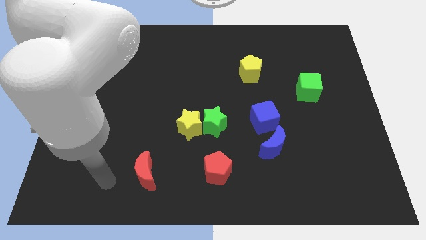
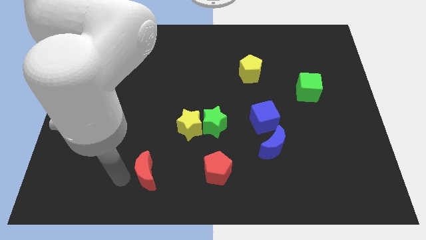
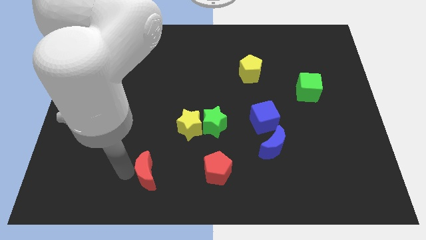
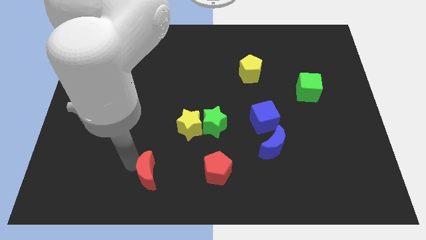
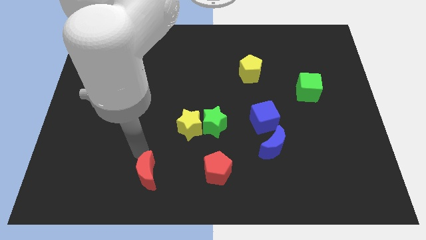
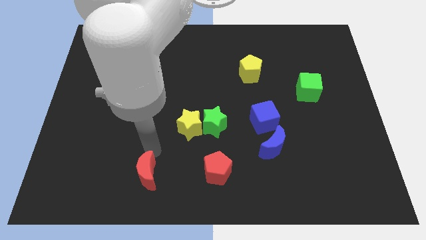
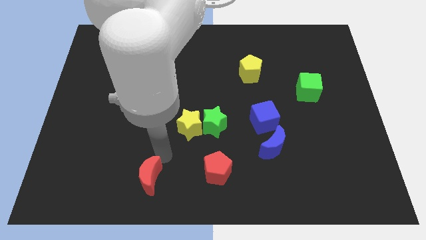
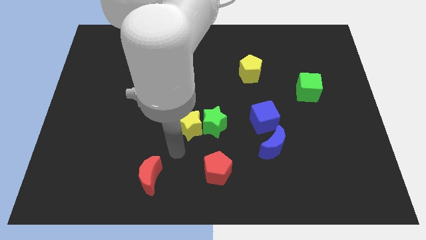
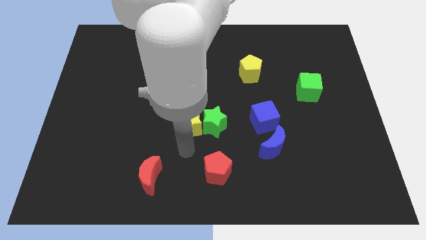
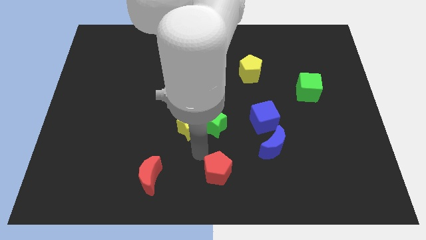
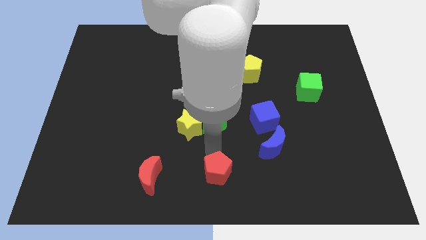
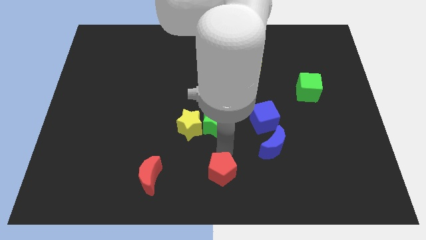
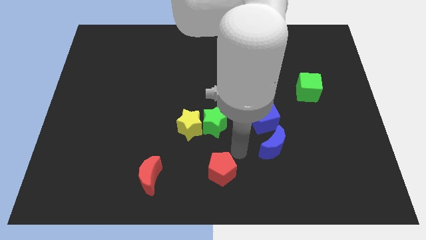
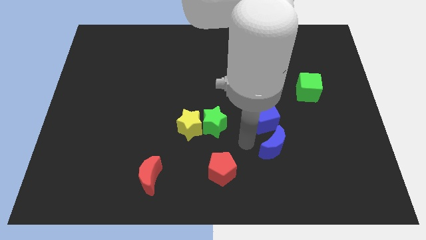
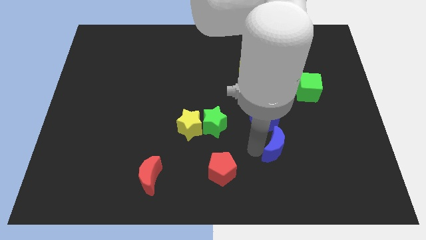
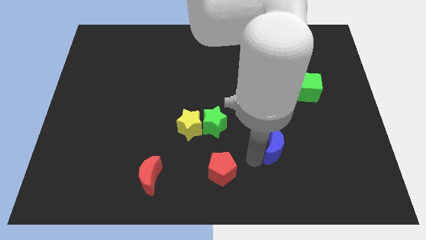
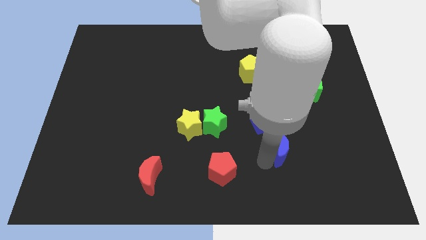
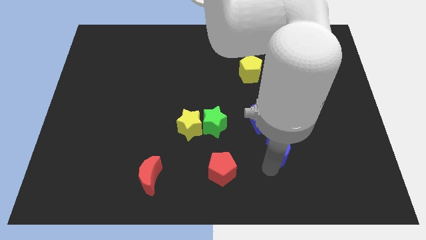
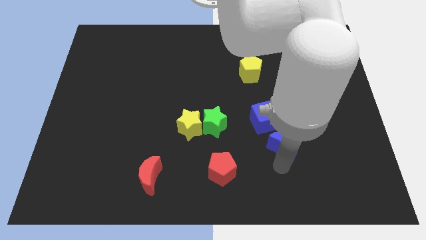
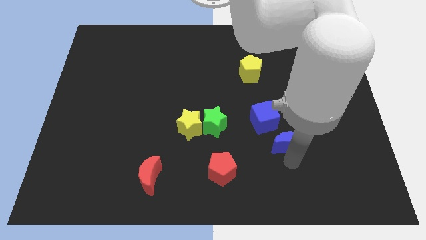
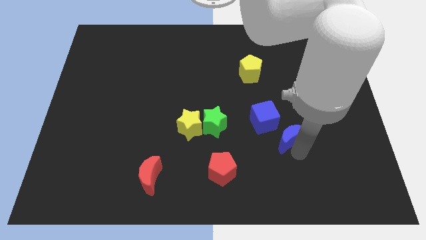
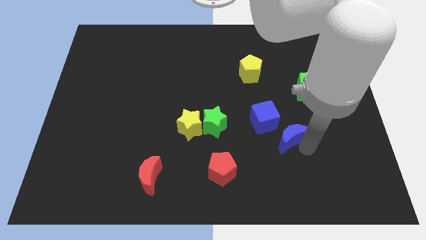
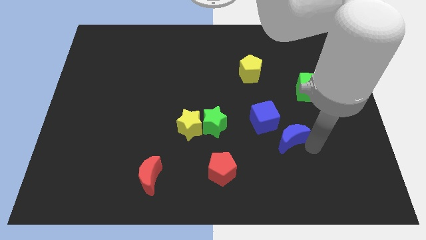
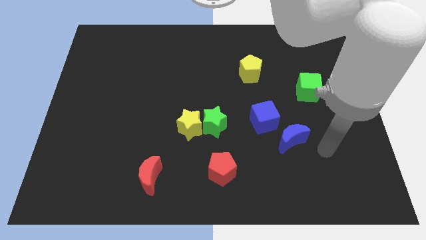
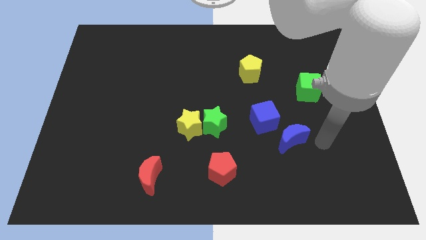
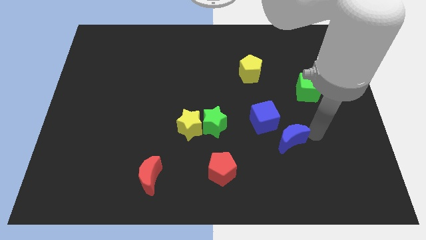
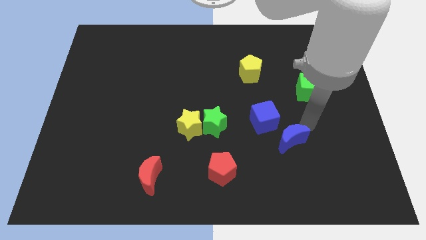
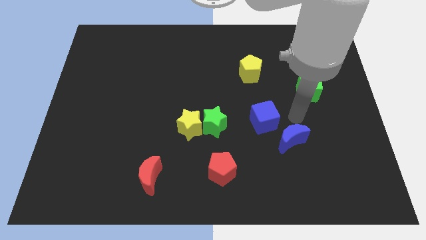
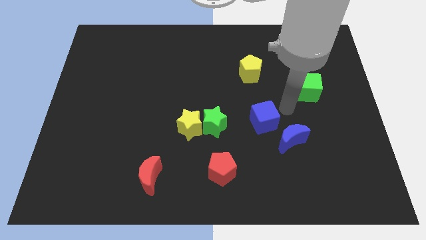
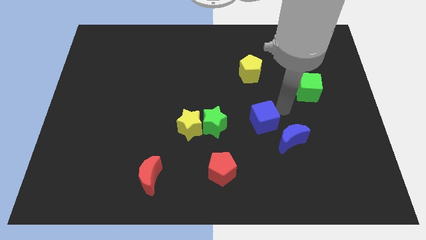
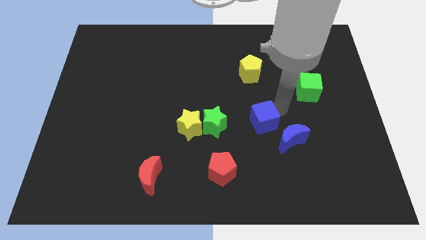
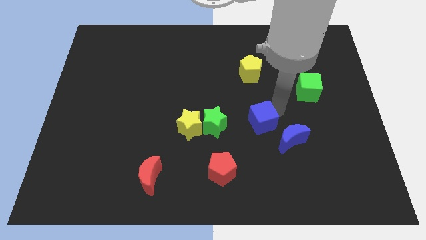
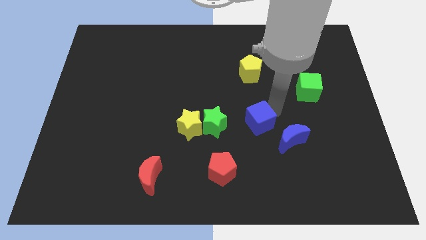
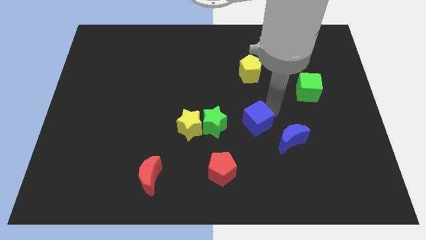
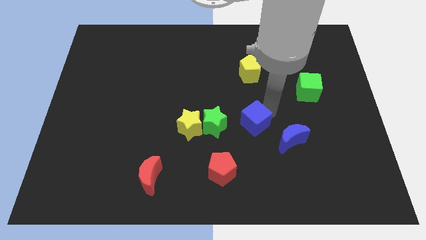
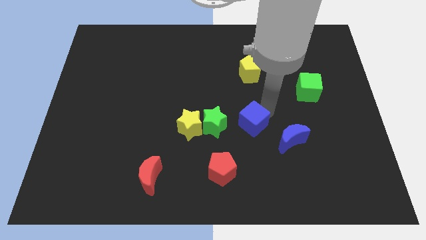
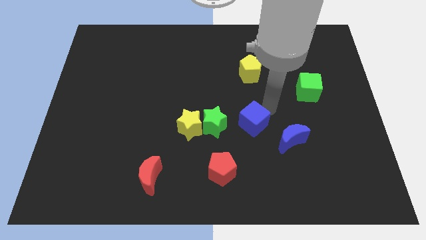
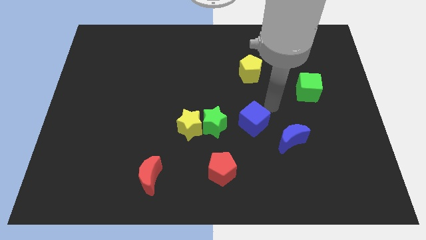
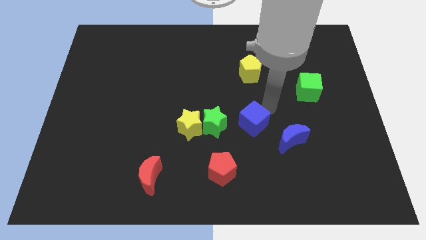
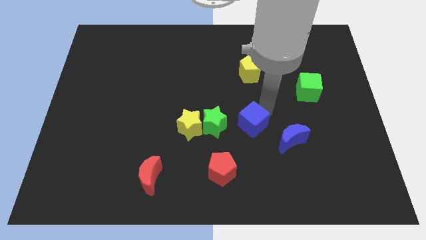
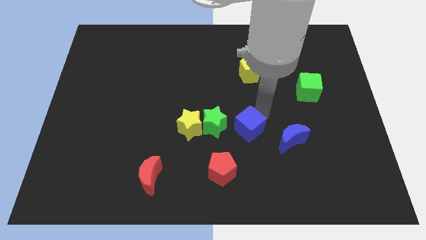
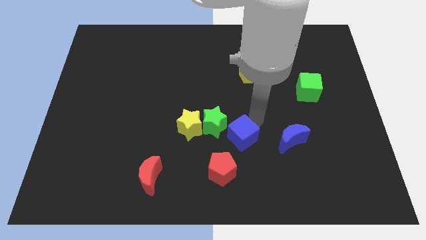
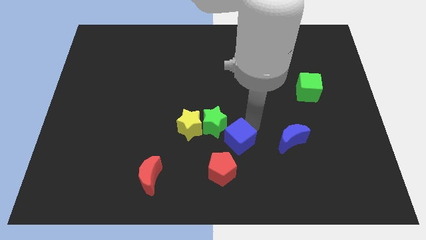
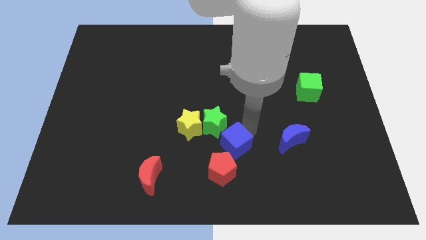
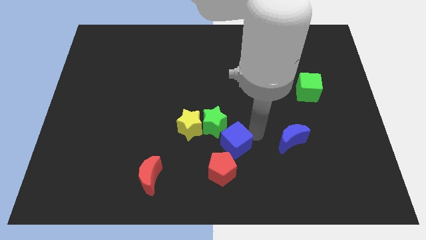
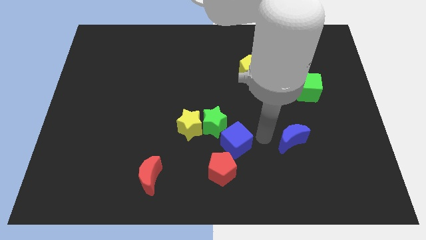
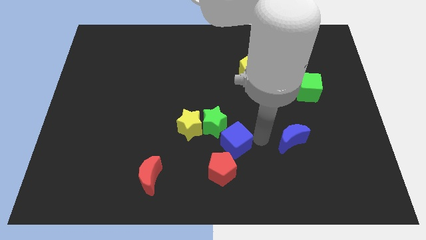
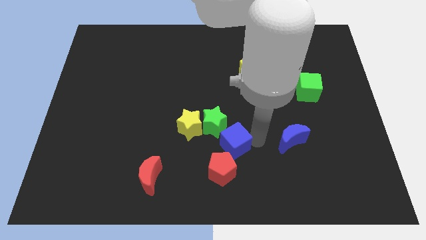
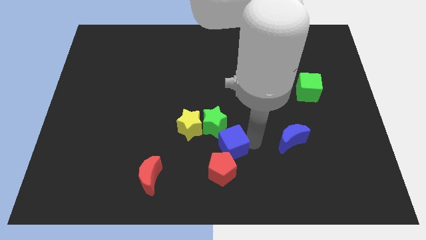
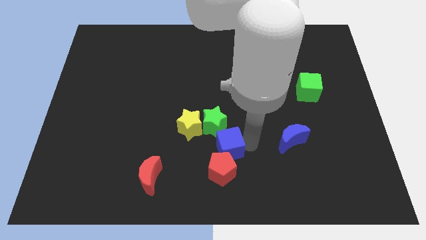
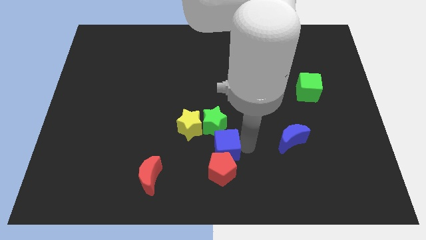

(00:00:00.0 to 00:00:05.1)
put the blue cube to the top left side of the red pentagon

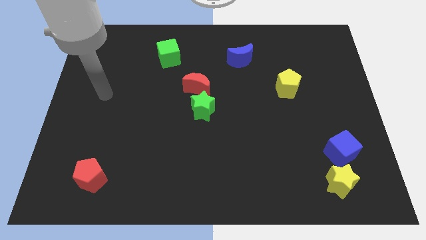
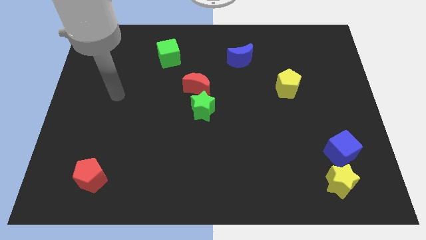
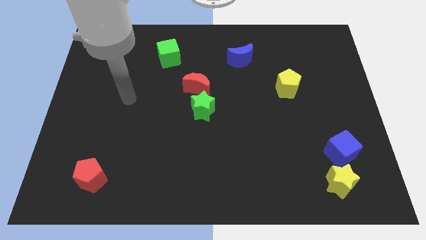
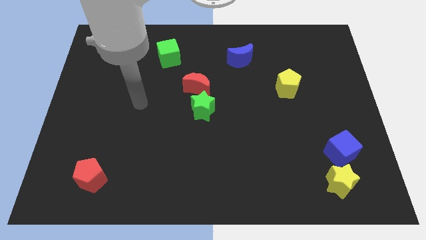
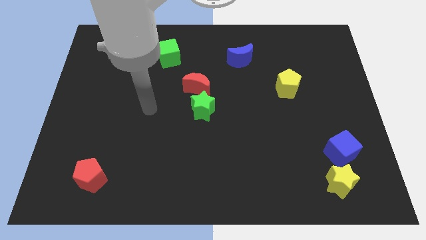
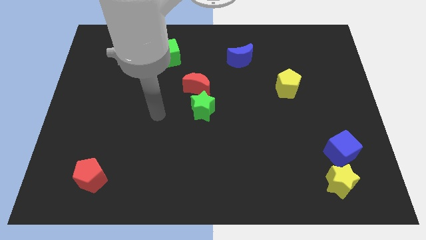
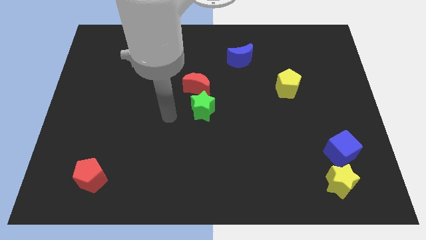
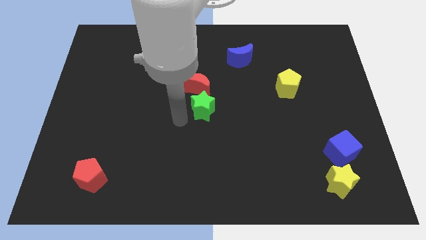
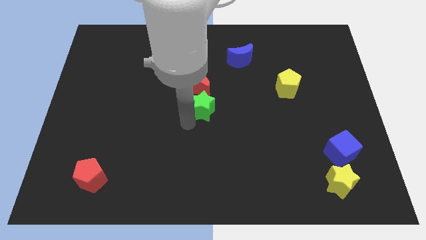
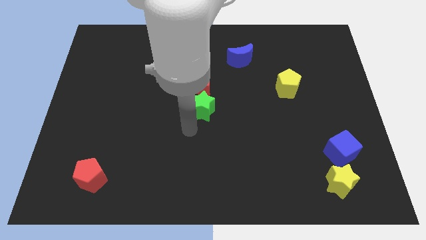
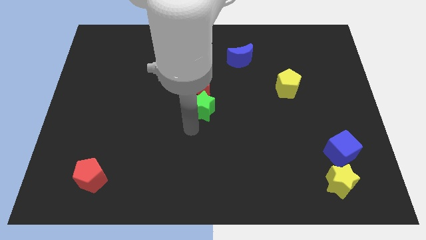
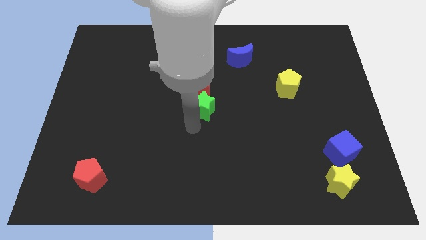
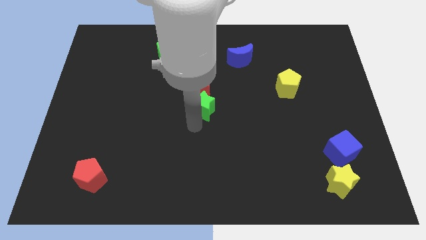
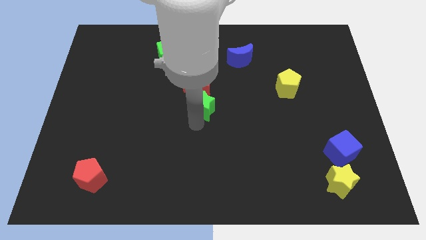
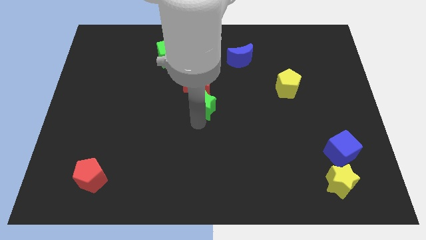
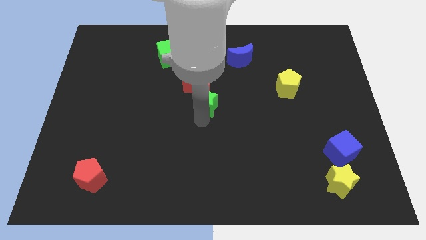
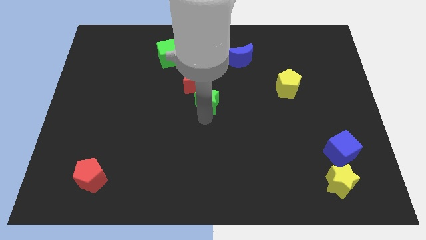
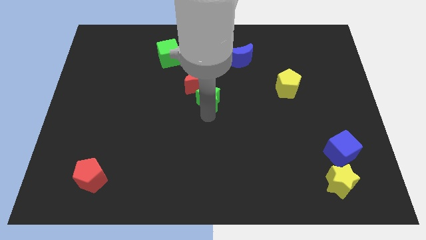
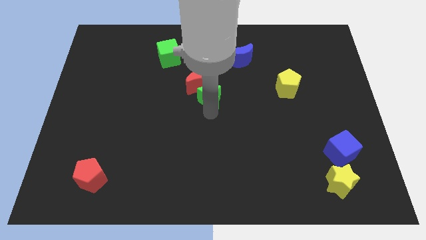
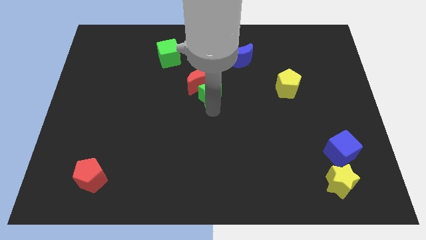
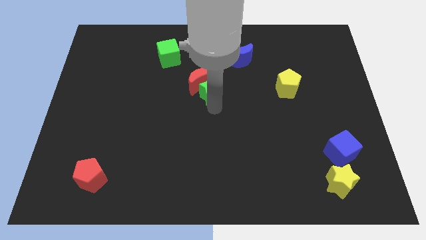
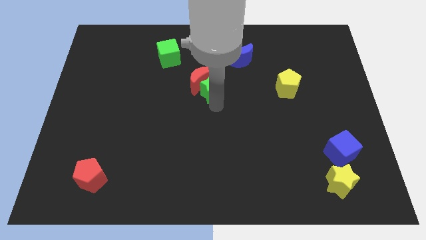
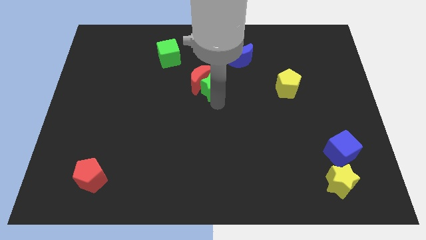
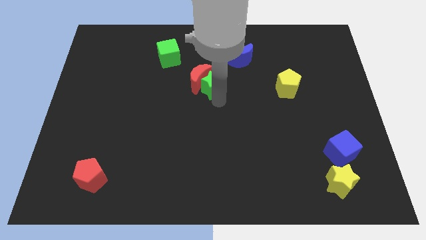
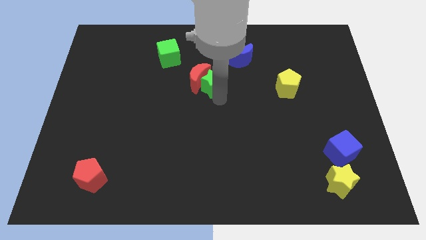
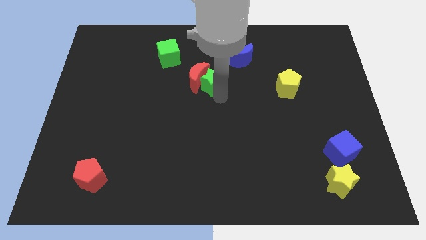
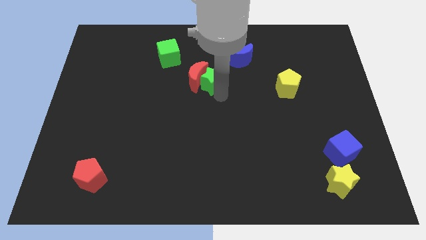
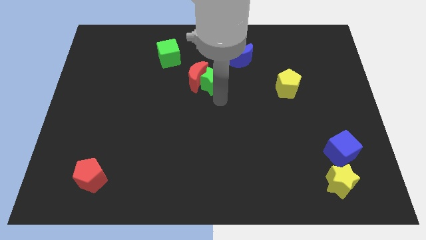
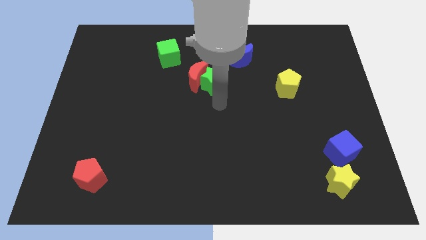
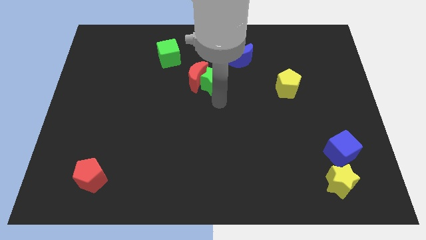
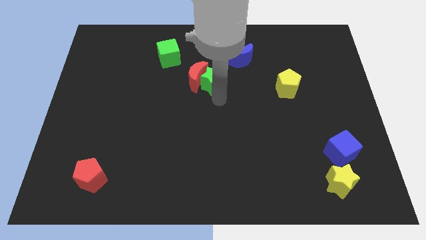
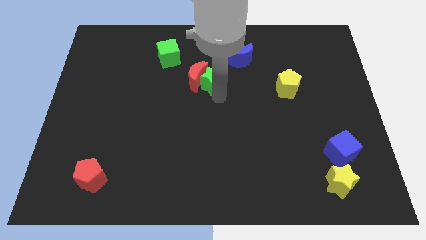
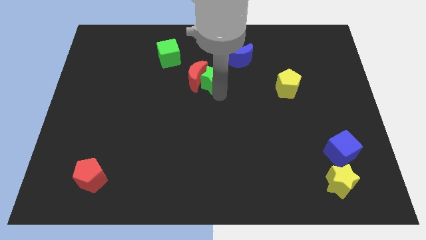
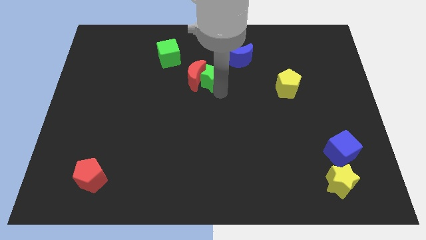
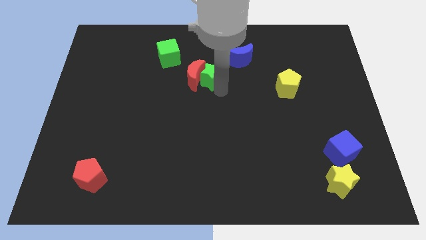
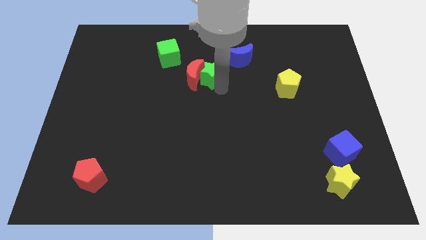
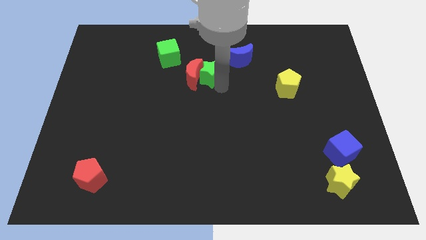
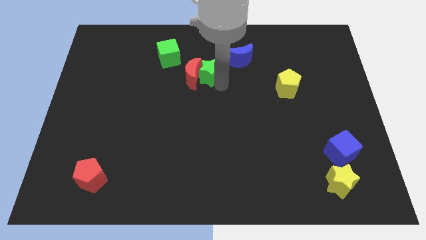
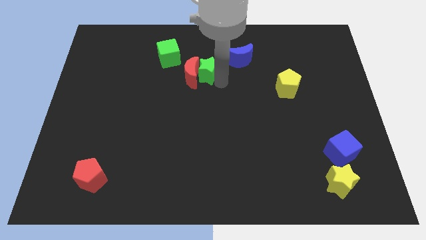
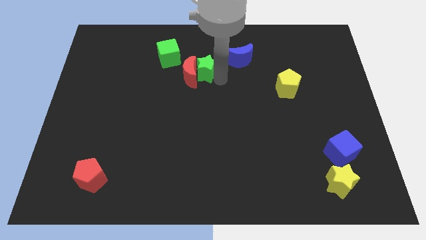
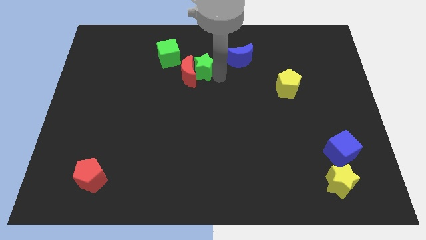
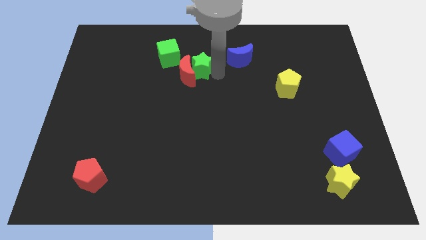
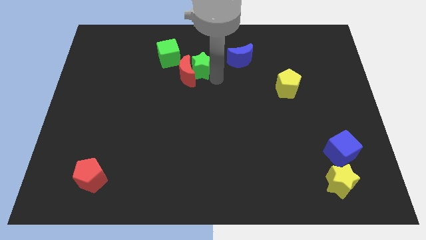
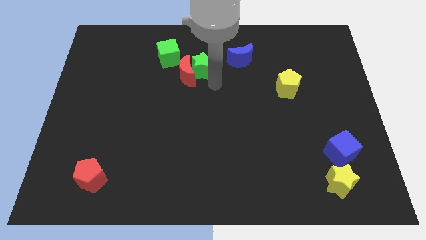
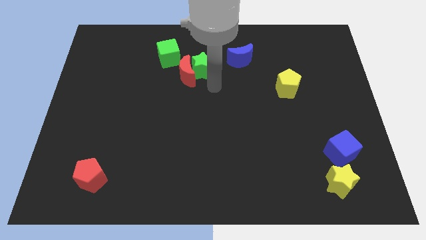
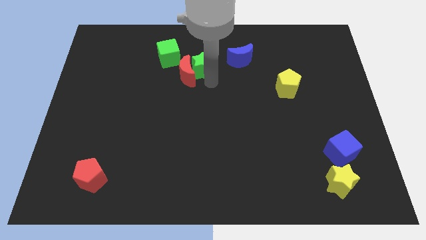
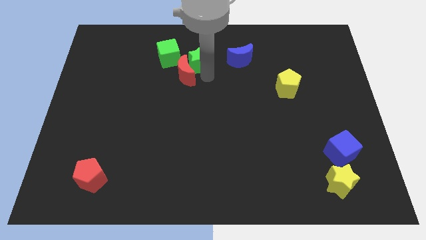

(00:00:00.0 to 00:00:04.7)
move the green star to the top of the red moon
